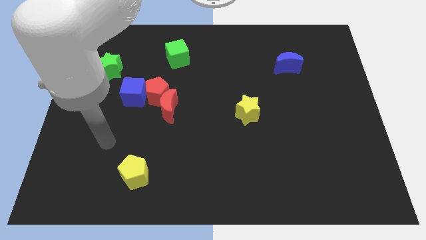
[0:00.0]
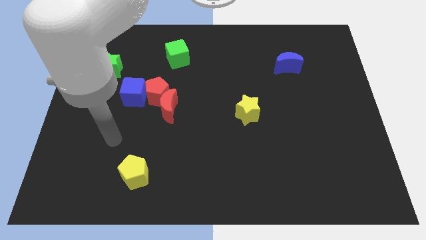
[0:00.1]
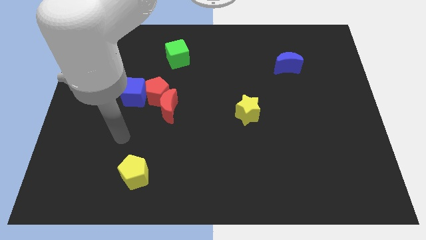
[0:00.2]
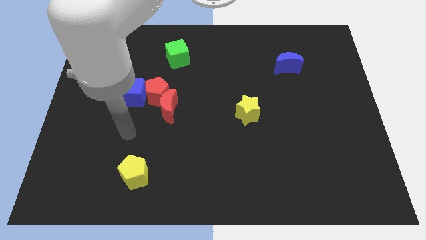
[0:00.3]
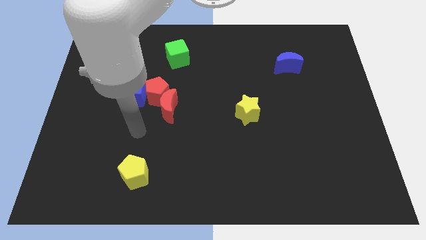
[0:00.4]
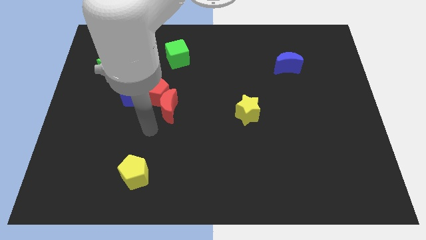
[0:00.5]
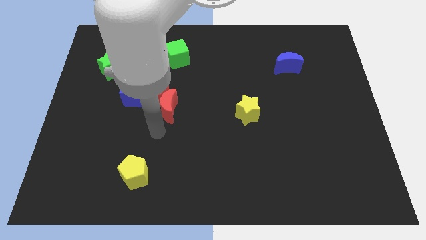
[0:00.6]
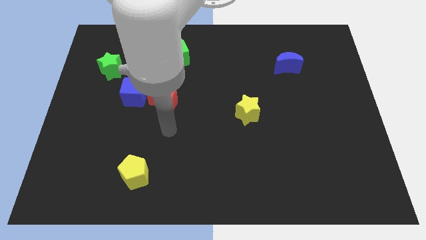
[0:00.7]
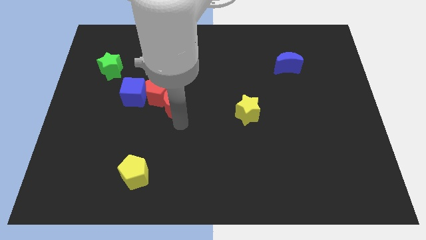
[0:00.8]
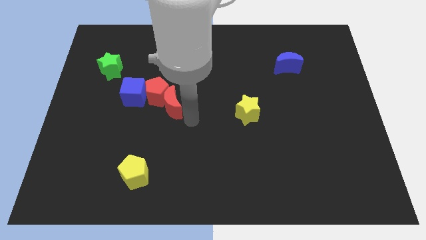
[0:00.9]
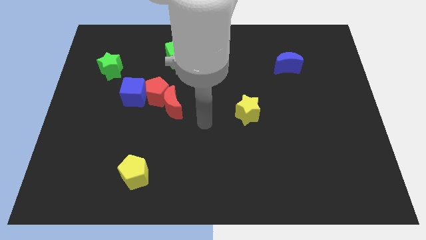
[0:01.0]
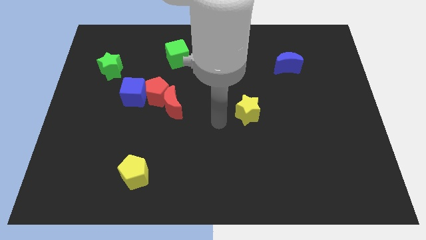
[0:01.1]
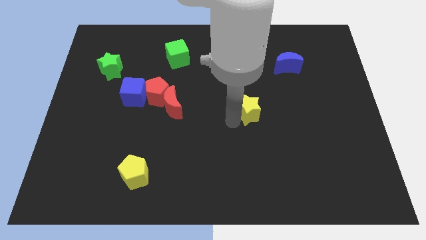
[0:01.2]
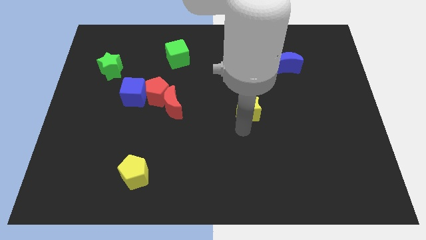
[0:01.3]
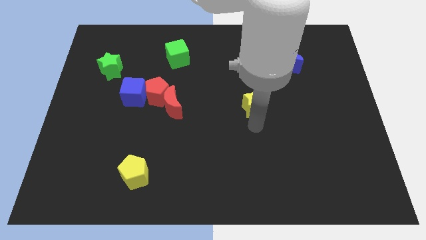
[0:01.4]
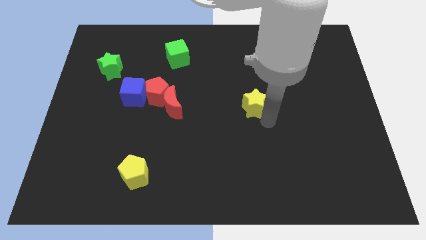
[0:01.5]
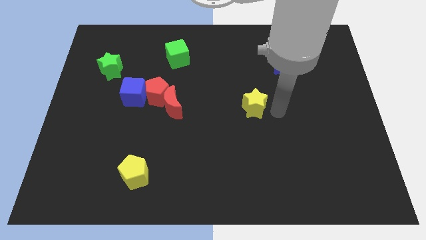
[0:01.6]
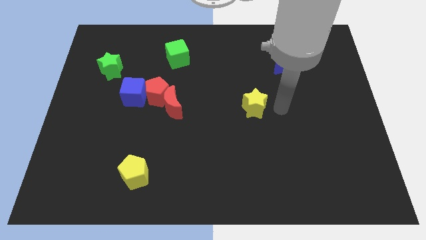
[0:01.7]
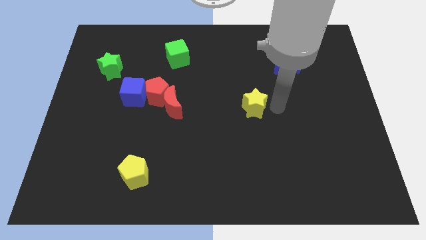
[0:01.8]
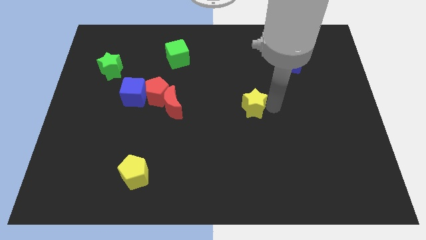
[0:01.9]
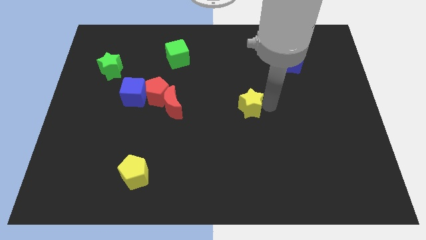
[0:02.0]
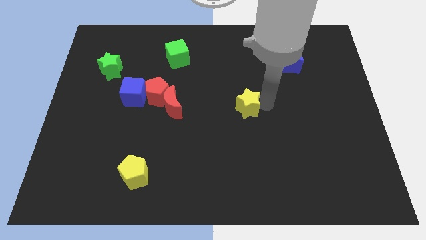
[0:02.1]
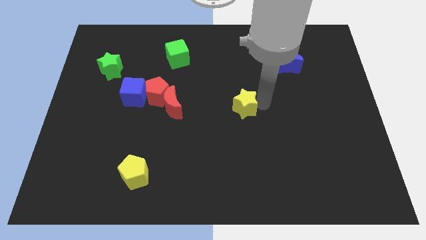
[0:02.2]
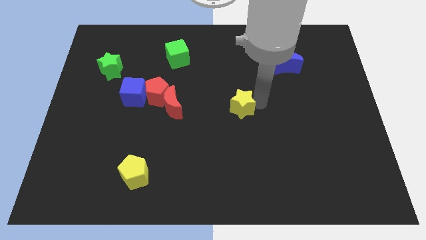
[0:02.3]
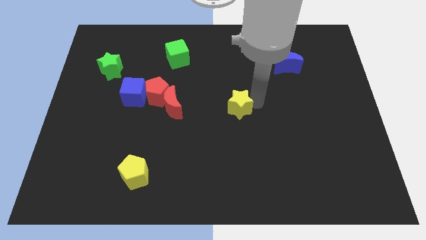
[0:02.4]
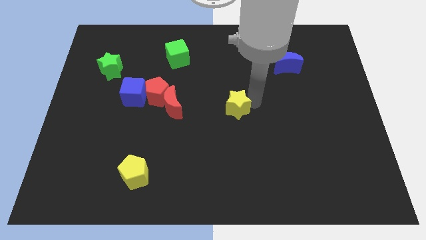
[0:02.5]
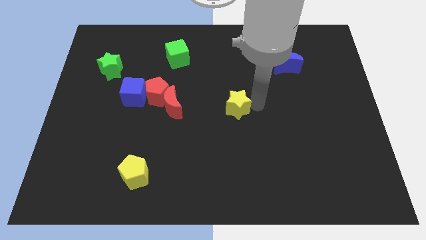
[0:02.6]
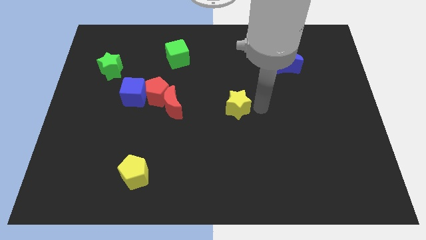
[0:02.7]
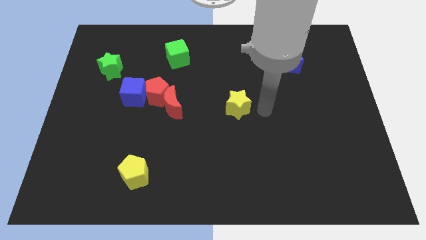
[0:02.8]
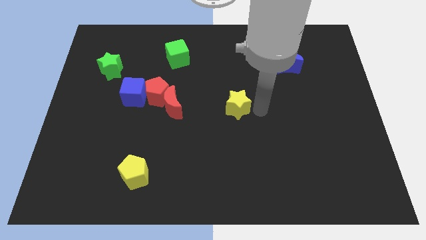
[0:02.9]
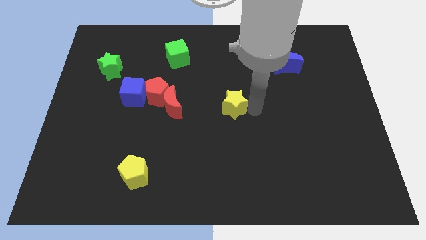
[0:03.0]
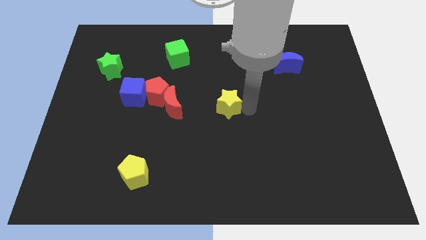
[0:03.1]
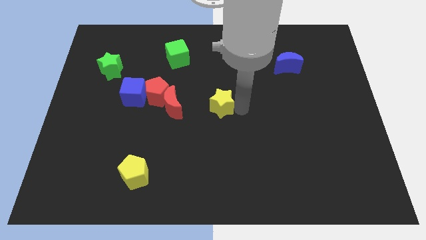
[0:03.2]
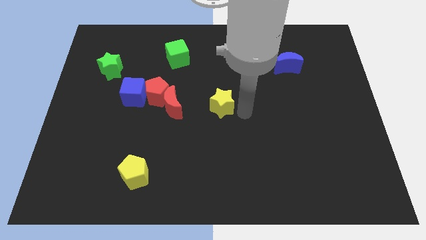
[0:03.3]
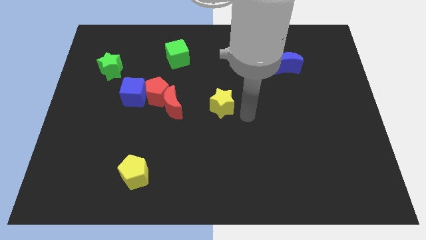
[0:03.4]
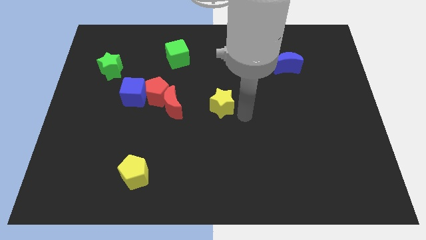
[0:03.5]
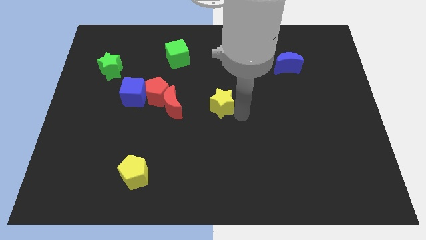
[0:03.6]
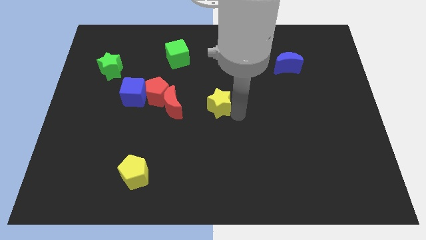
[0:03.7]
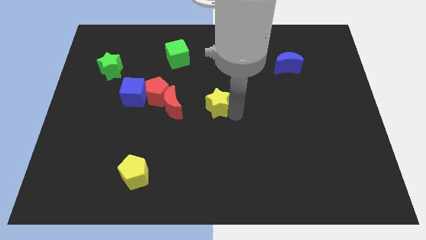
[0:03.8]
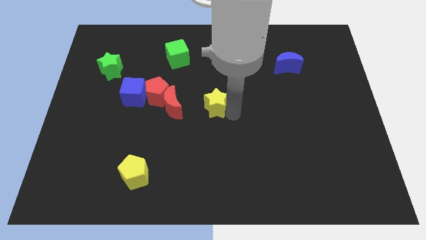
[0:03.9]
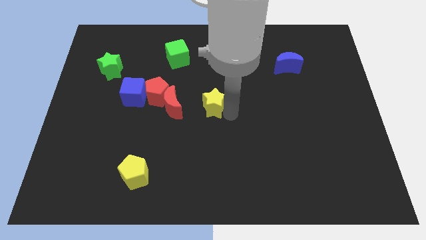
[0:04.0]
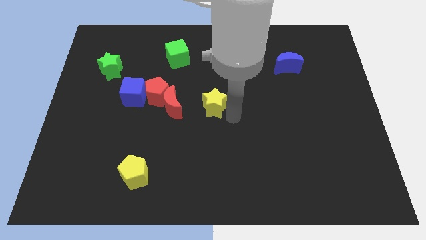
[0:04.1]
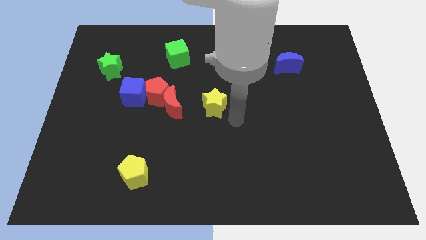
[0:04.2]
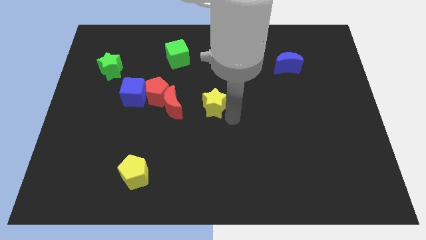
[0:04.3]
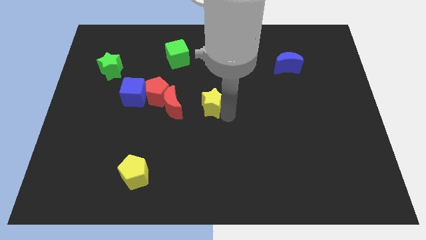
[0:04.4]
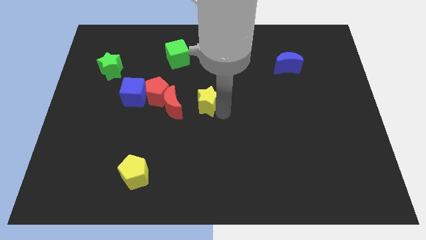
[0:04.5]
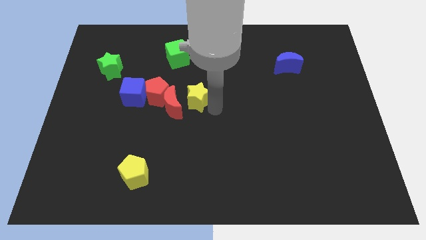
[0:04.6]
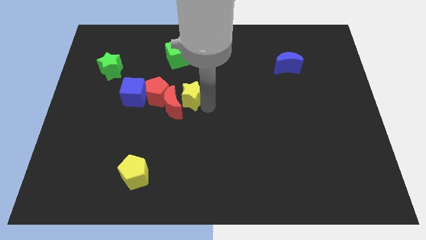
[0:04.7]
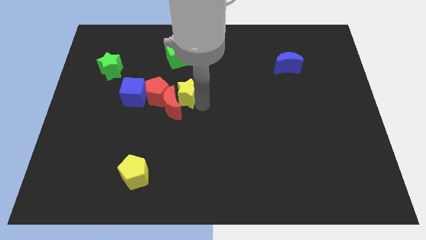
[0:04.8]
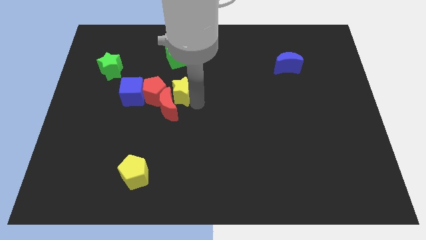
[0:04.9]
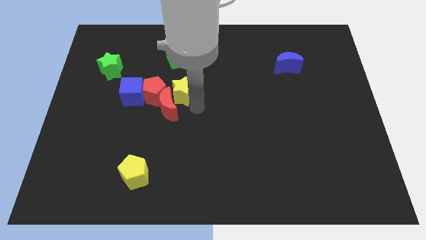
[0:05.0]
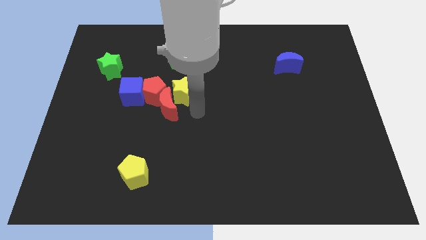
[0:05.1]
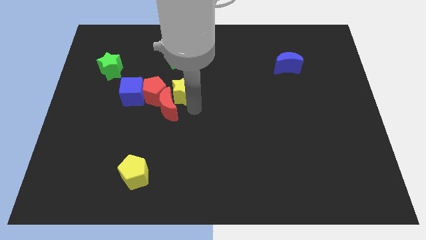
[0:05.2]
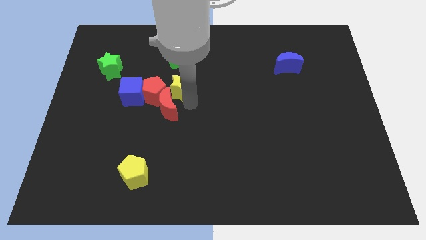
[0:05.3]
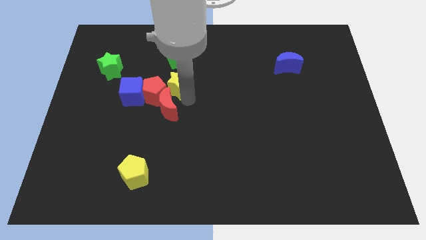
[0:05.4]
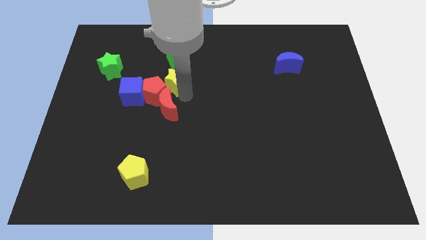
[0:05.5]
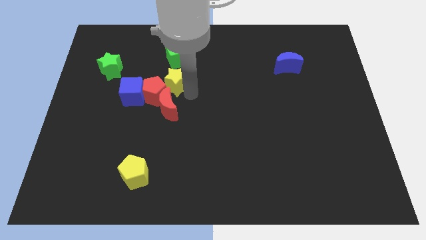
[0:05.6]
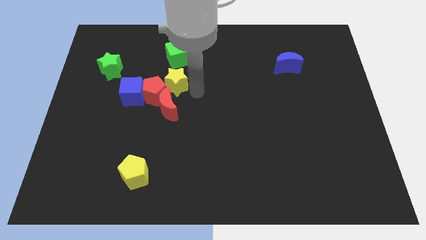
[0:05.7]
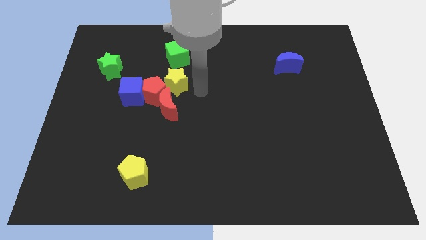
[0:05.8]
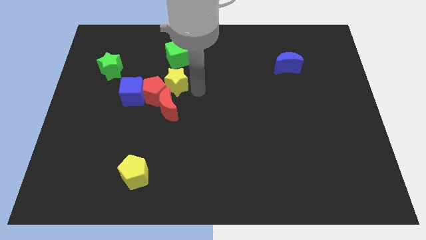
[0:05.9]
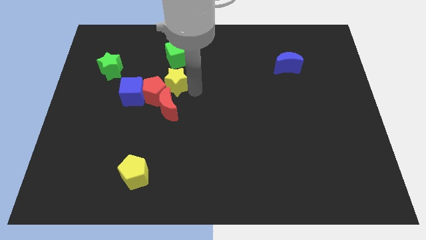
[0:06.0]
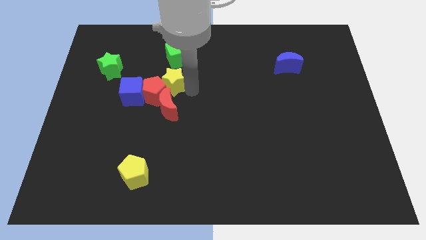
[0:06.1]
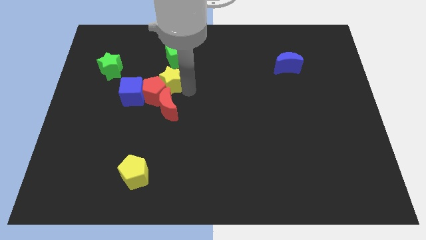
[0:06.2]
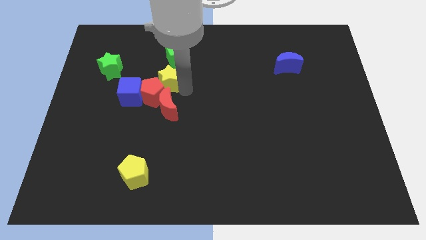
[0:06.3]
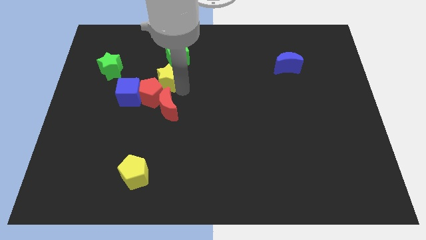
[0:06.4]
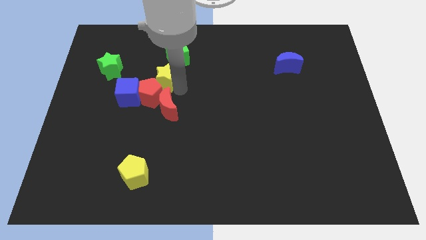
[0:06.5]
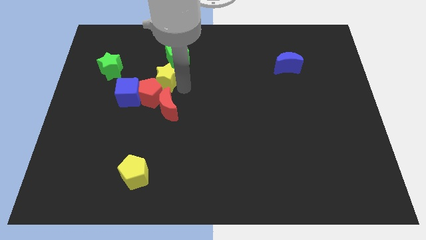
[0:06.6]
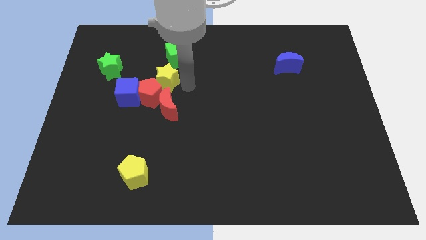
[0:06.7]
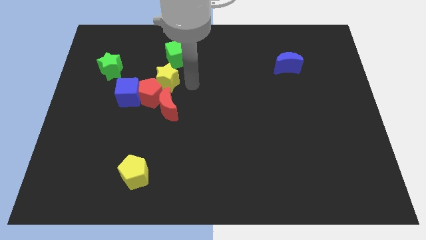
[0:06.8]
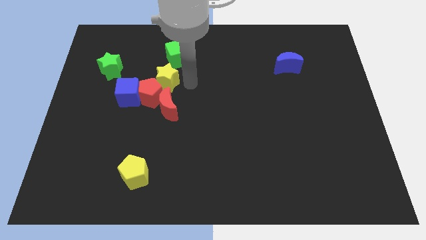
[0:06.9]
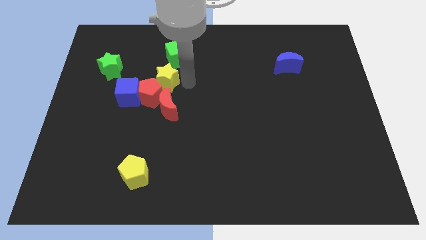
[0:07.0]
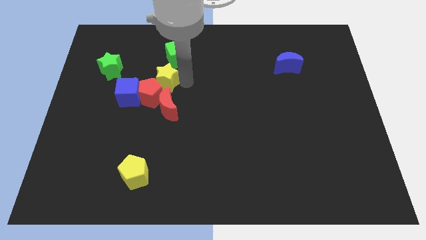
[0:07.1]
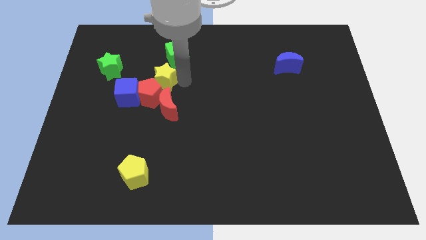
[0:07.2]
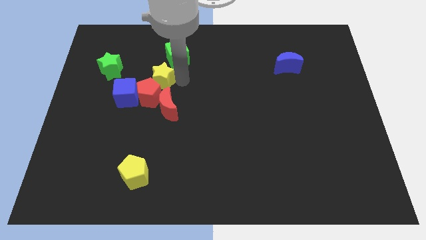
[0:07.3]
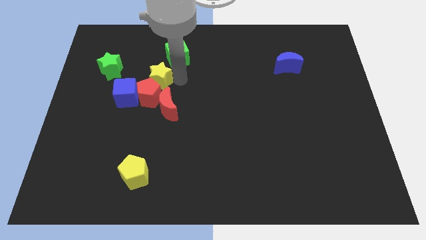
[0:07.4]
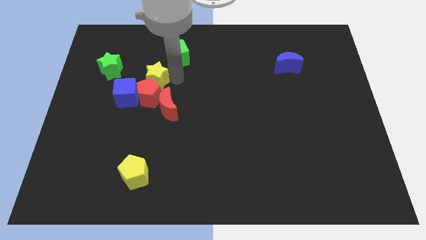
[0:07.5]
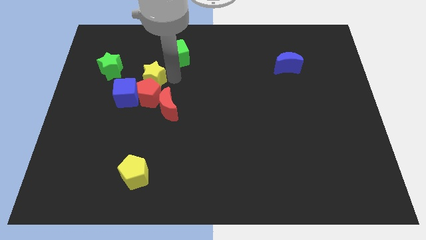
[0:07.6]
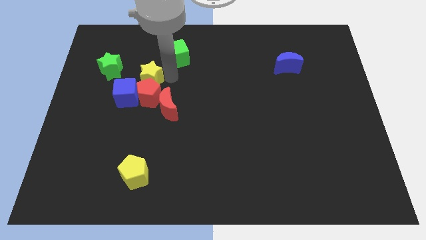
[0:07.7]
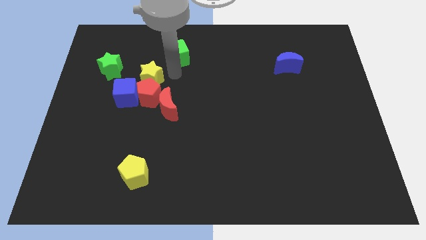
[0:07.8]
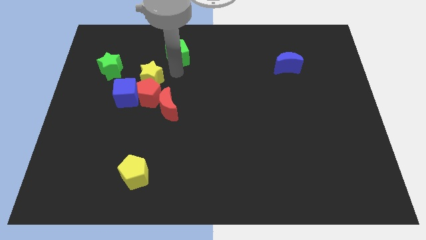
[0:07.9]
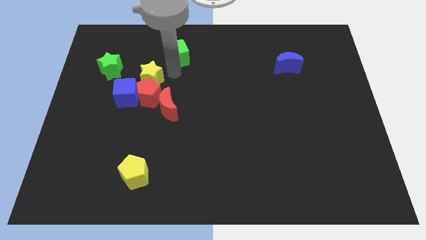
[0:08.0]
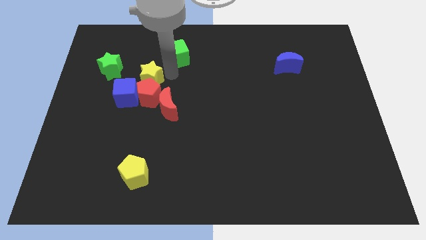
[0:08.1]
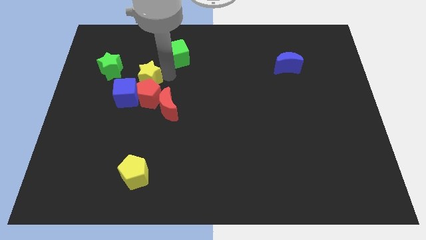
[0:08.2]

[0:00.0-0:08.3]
slide the yellow star to the bottom right of the green star
